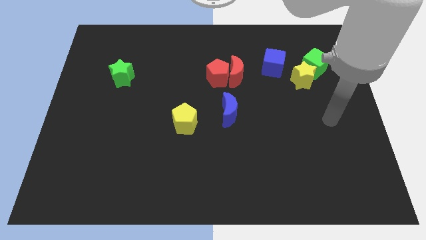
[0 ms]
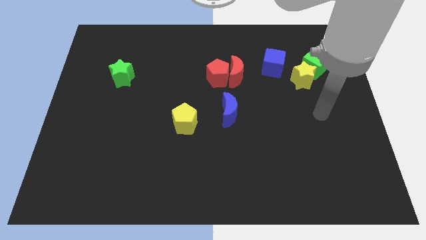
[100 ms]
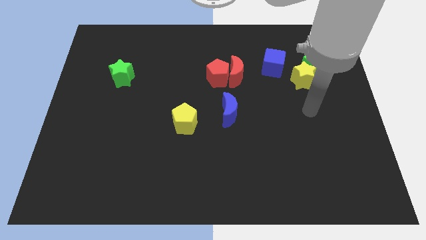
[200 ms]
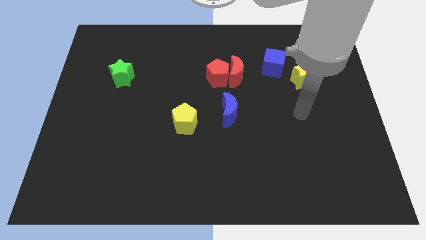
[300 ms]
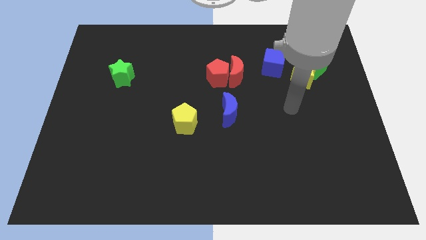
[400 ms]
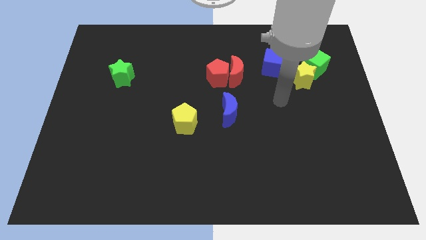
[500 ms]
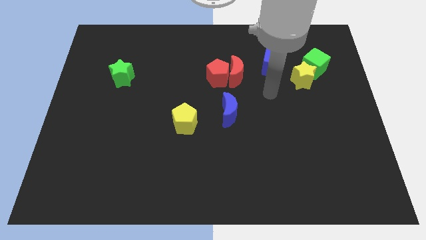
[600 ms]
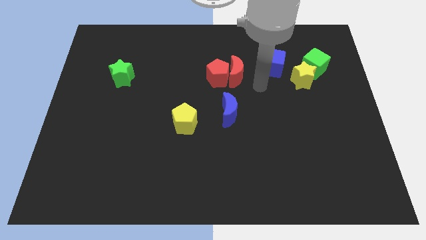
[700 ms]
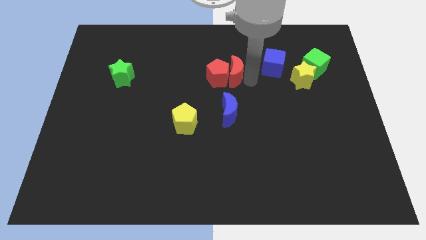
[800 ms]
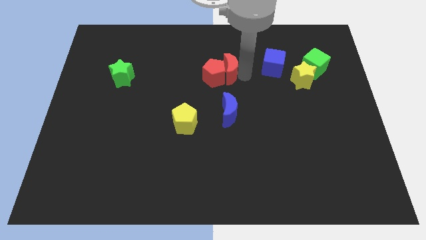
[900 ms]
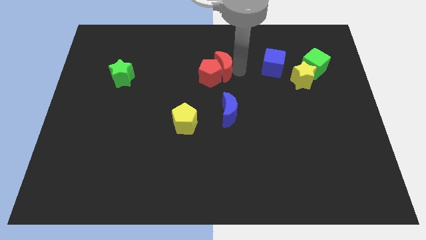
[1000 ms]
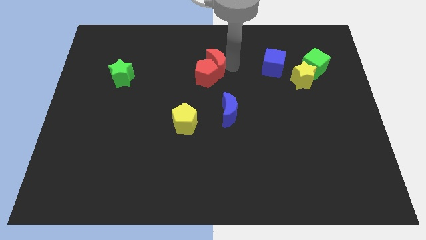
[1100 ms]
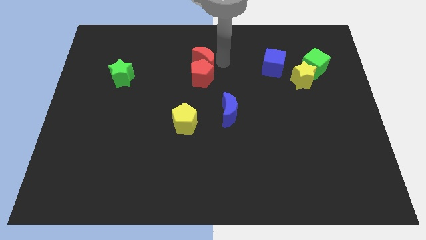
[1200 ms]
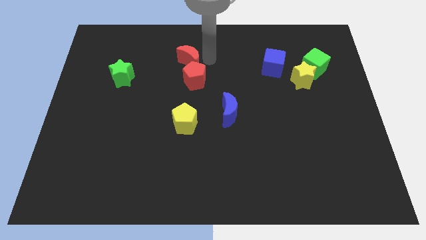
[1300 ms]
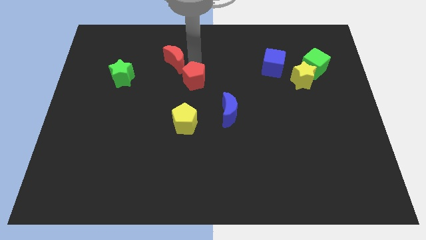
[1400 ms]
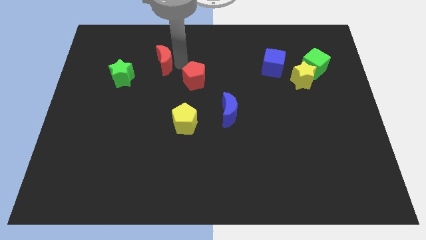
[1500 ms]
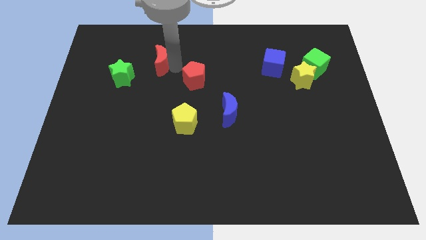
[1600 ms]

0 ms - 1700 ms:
move the red pentagon away from the red moon

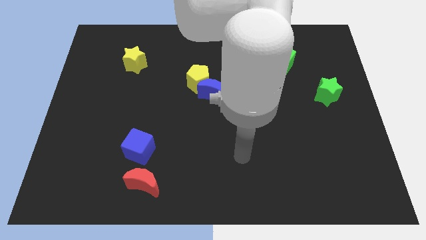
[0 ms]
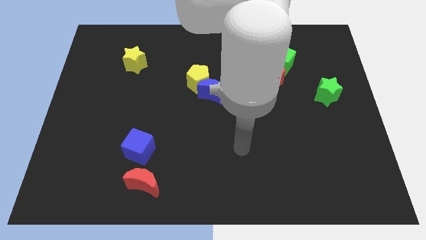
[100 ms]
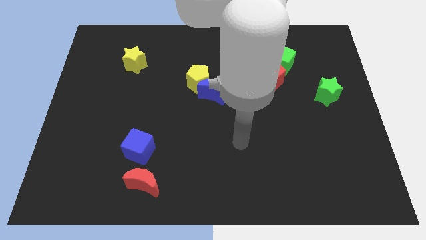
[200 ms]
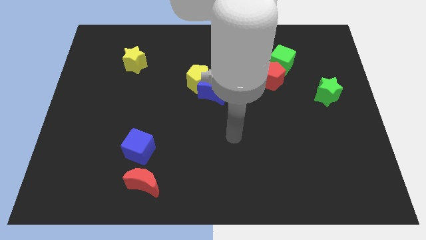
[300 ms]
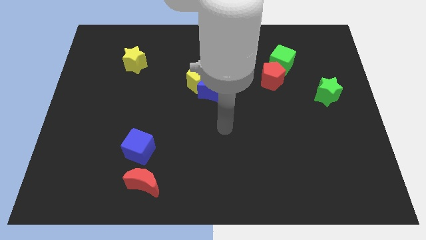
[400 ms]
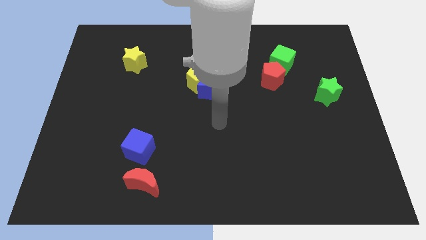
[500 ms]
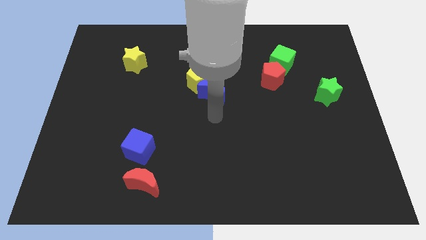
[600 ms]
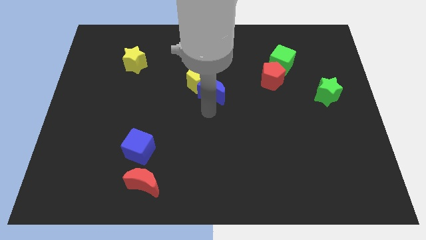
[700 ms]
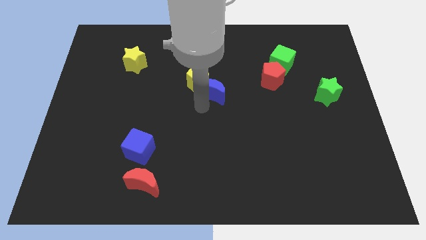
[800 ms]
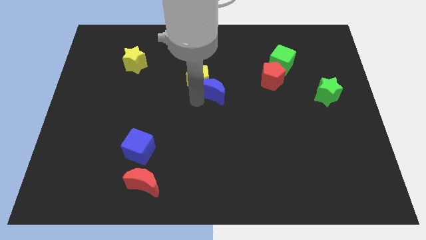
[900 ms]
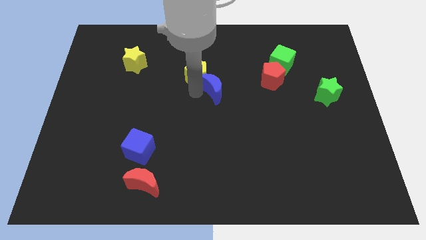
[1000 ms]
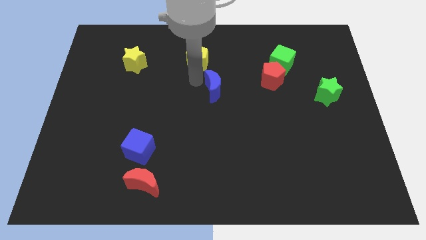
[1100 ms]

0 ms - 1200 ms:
pull the blue moon apart from the yellow pentagon

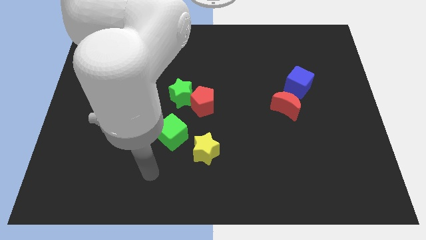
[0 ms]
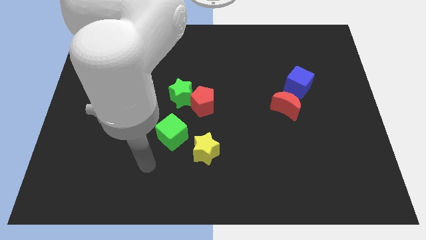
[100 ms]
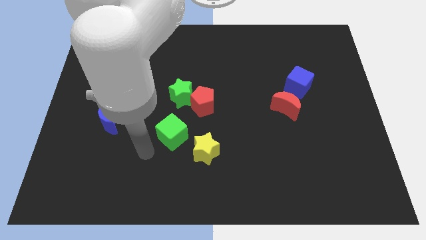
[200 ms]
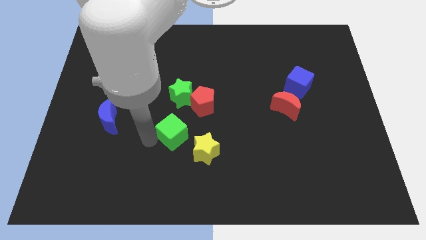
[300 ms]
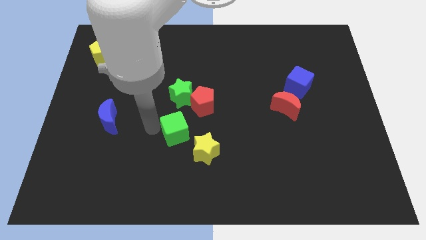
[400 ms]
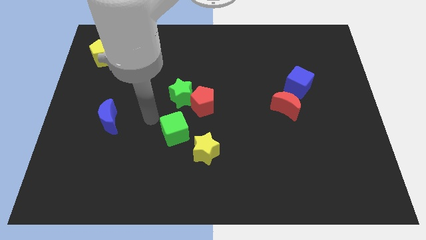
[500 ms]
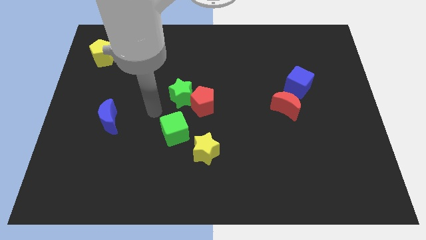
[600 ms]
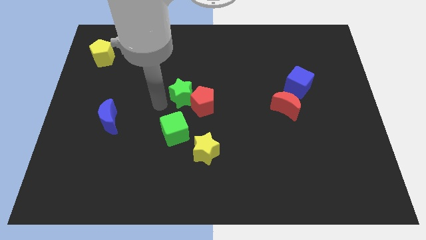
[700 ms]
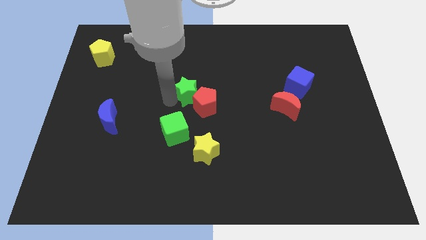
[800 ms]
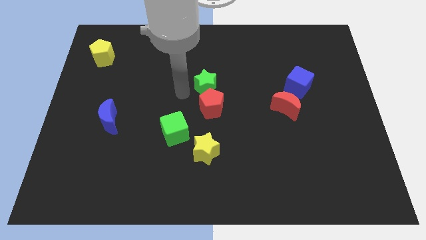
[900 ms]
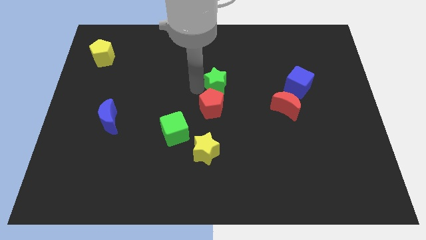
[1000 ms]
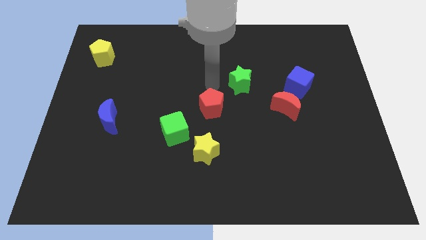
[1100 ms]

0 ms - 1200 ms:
move the red pentagon away from the green star

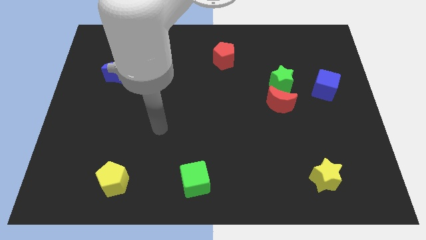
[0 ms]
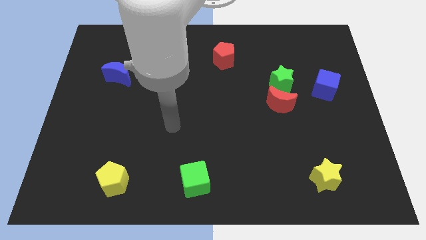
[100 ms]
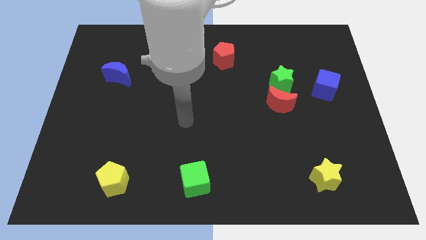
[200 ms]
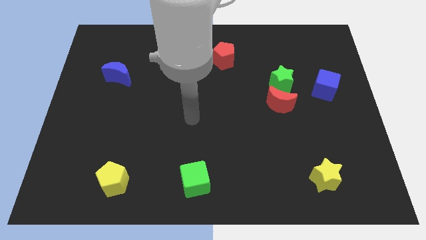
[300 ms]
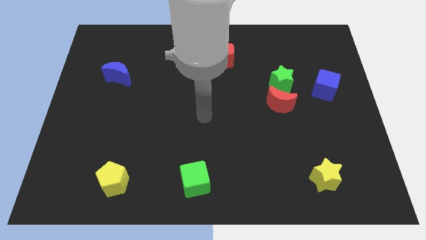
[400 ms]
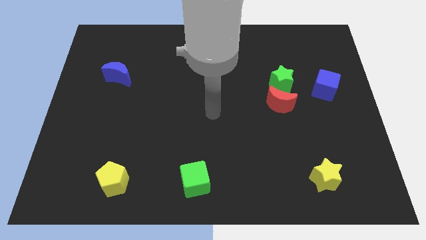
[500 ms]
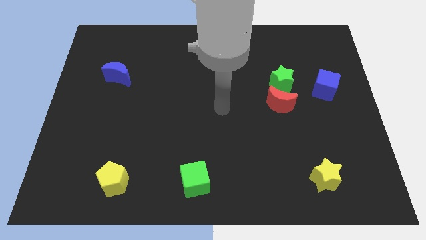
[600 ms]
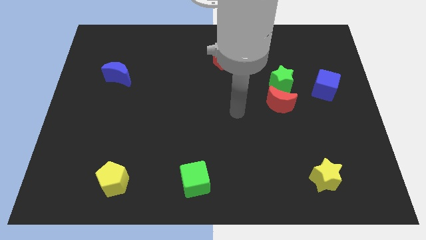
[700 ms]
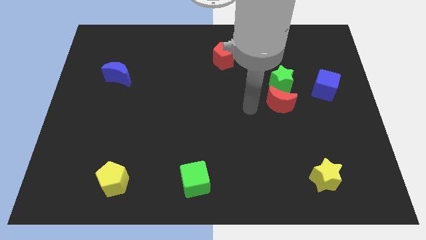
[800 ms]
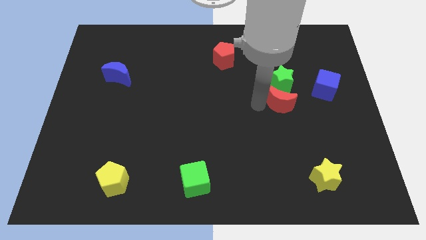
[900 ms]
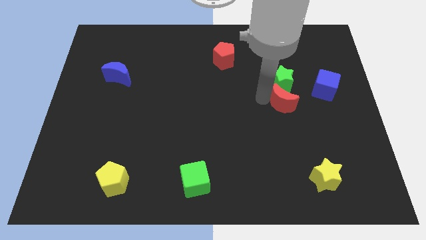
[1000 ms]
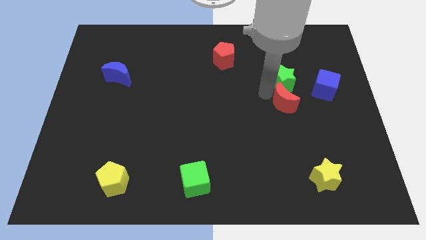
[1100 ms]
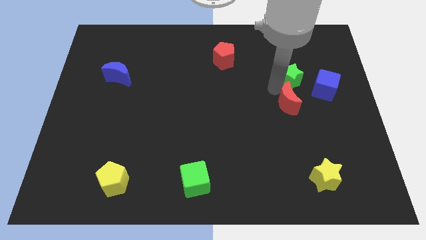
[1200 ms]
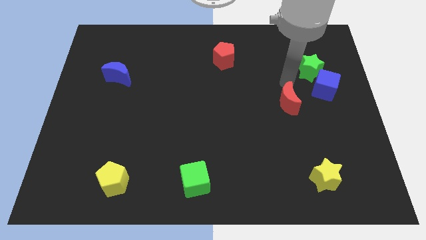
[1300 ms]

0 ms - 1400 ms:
separate the red moon from the green star

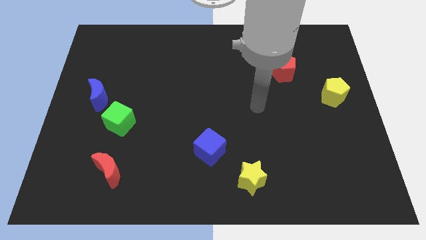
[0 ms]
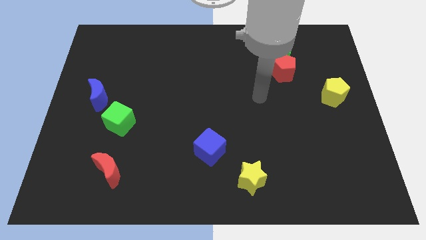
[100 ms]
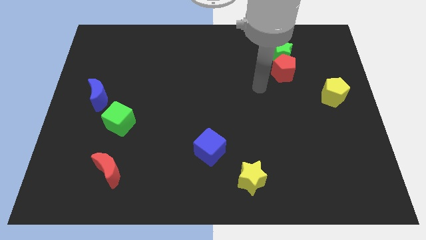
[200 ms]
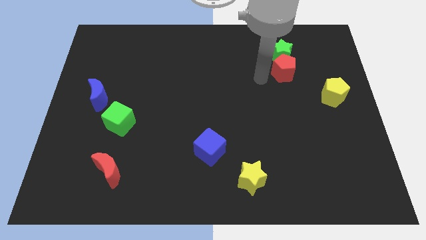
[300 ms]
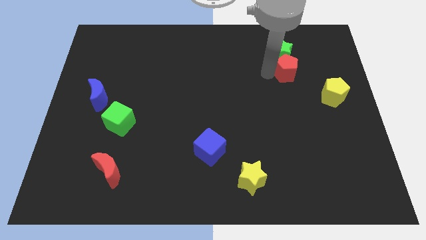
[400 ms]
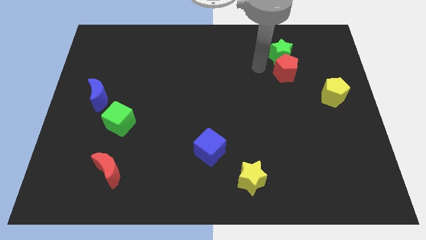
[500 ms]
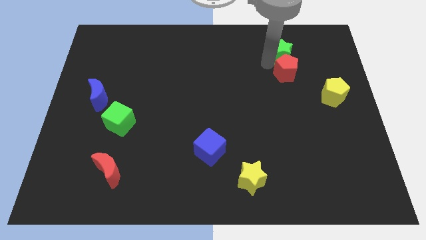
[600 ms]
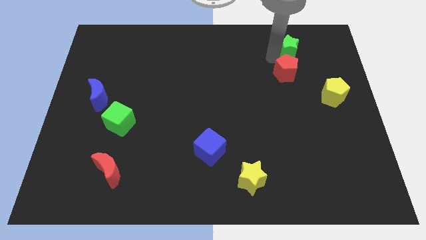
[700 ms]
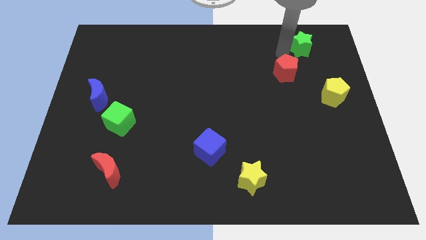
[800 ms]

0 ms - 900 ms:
separate the red pentagon from the green star

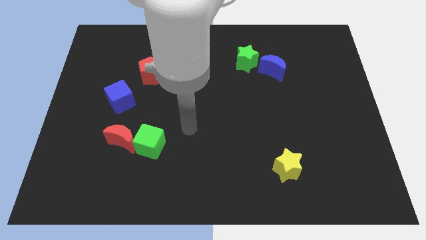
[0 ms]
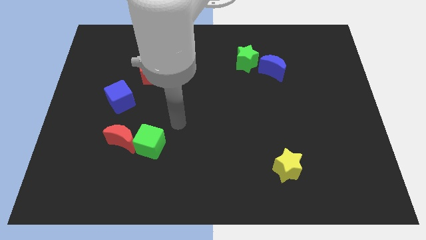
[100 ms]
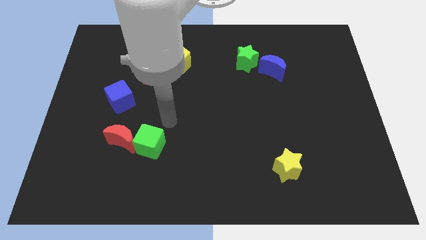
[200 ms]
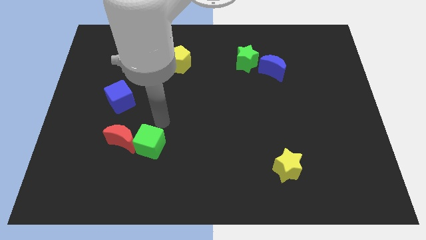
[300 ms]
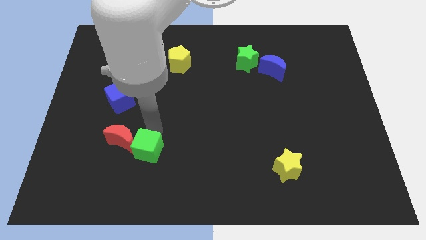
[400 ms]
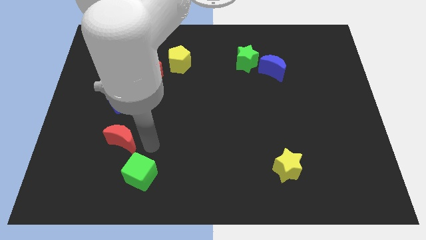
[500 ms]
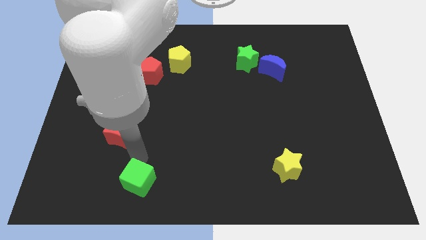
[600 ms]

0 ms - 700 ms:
pull the red moon apart from the green cube

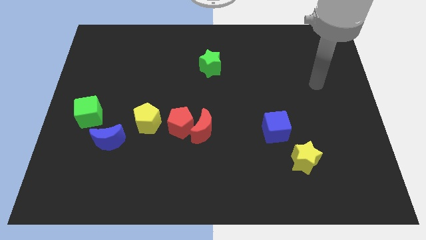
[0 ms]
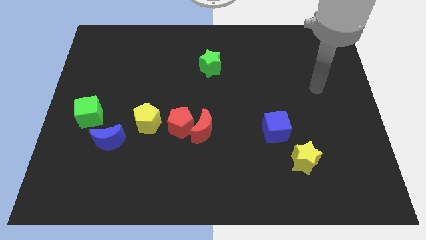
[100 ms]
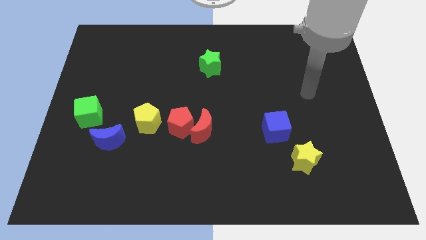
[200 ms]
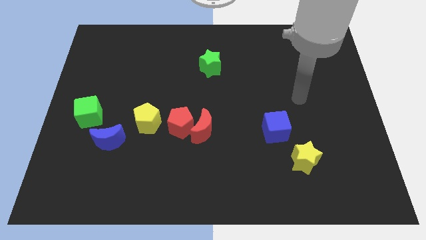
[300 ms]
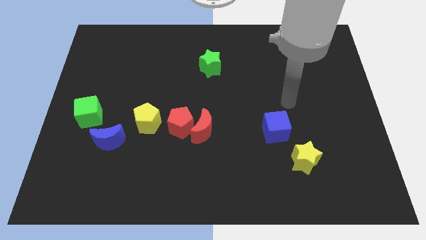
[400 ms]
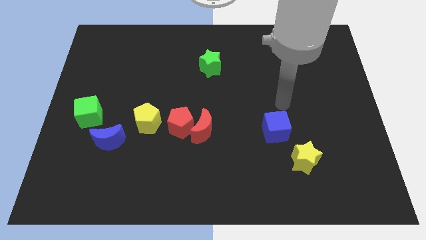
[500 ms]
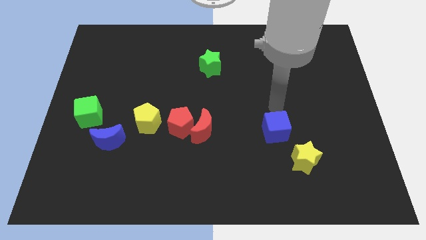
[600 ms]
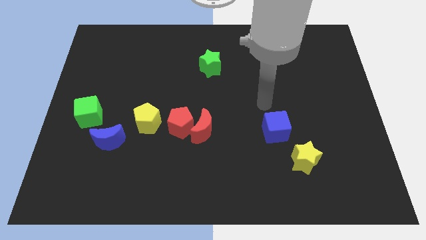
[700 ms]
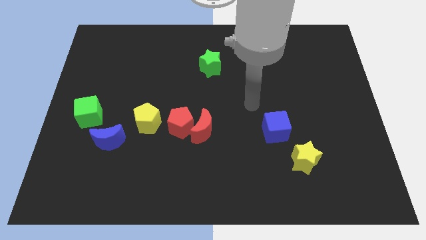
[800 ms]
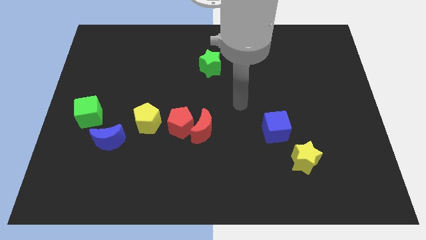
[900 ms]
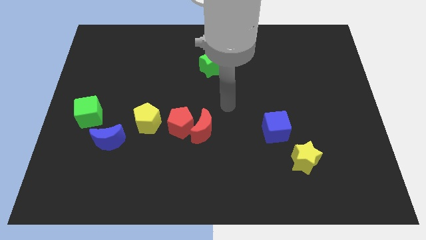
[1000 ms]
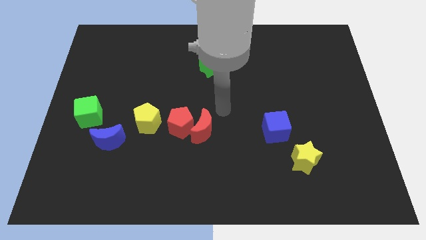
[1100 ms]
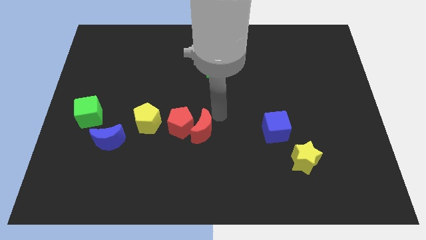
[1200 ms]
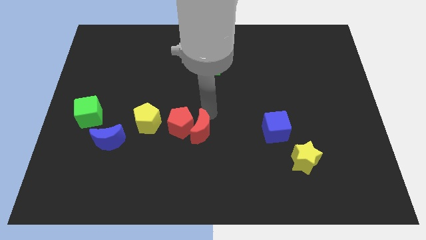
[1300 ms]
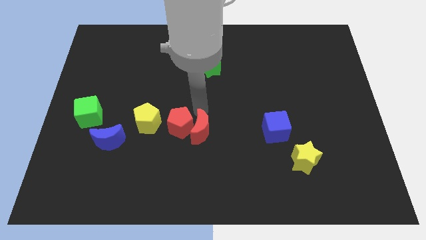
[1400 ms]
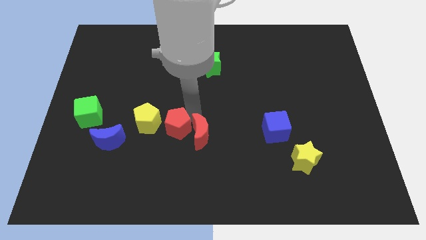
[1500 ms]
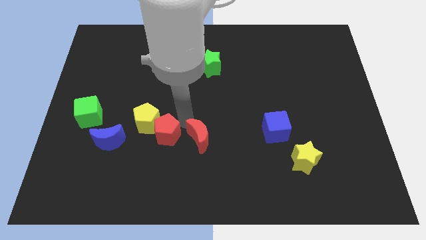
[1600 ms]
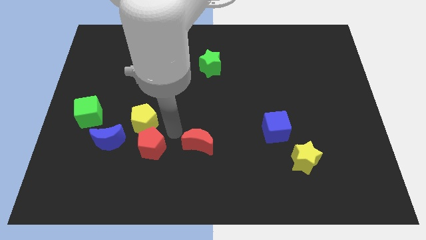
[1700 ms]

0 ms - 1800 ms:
move the red moon away from the red pentagon

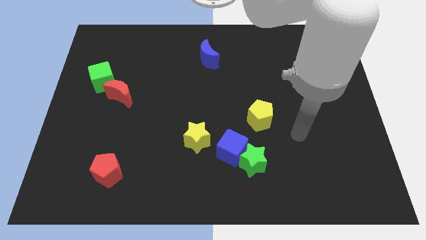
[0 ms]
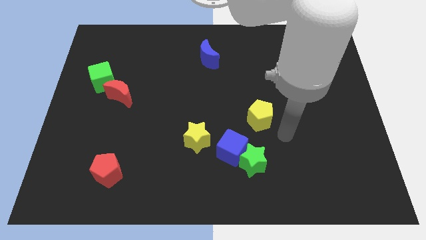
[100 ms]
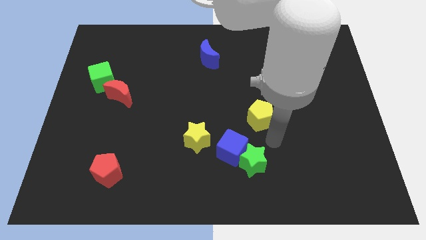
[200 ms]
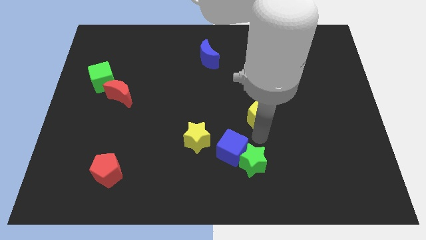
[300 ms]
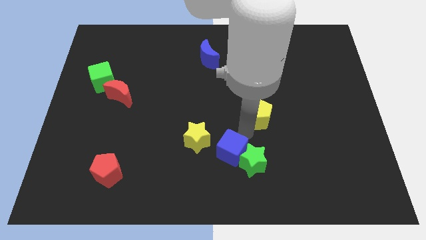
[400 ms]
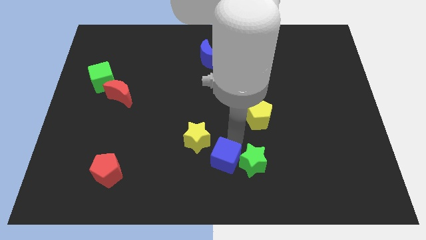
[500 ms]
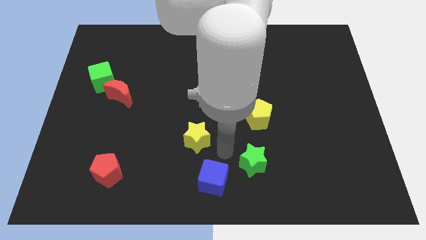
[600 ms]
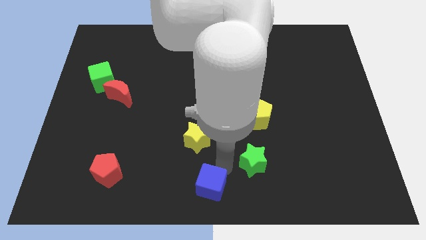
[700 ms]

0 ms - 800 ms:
move the green star away from the blue cube
